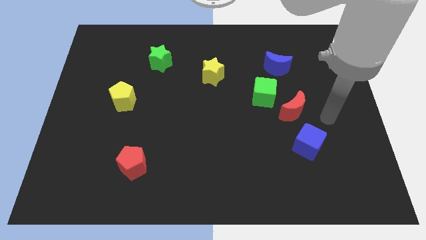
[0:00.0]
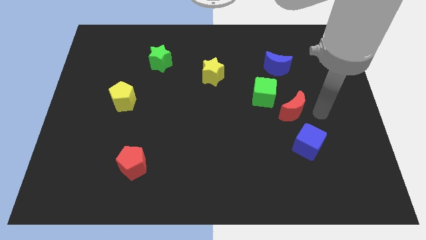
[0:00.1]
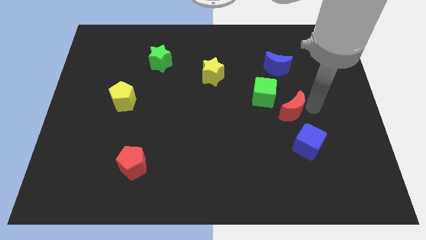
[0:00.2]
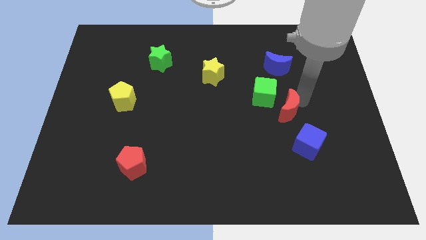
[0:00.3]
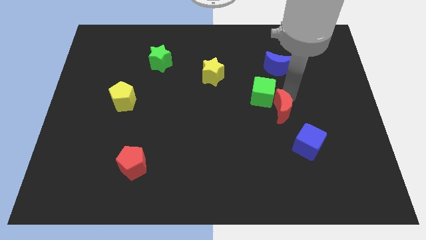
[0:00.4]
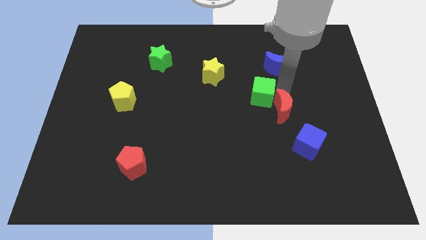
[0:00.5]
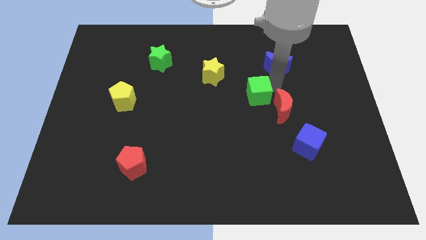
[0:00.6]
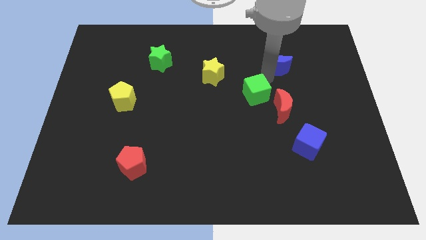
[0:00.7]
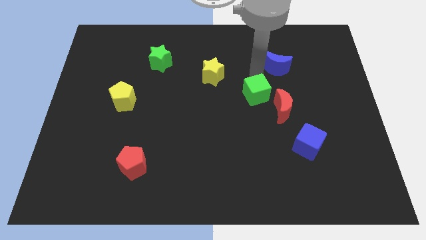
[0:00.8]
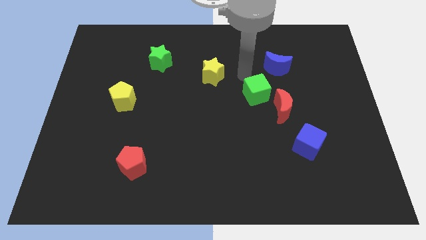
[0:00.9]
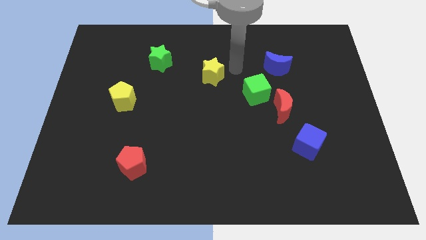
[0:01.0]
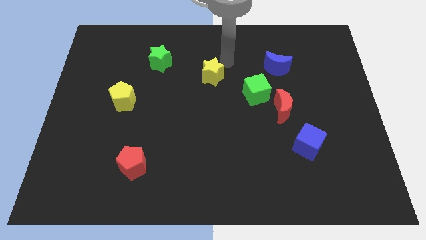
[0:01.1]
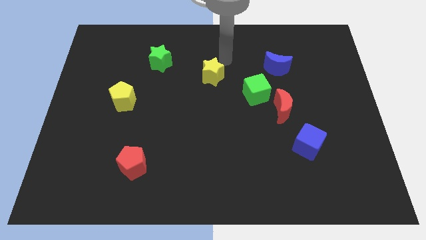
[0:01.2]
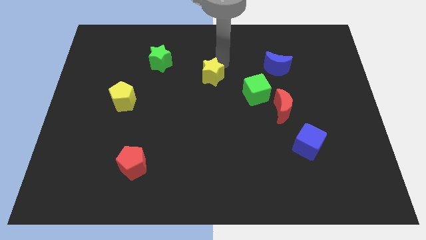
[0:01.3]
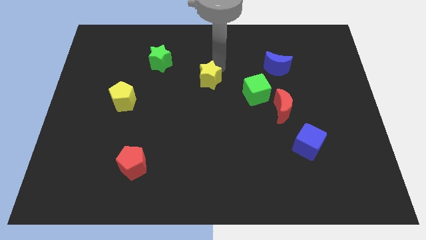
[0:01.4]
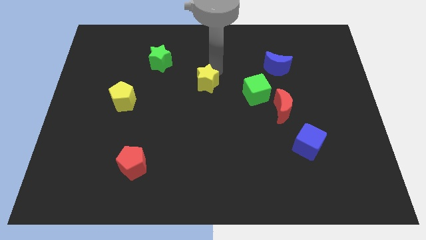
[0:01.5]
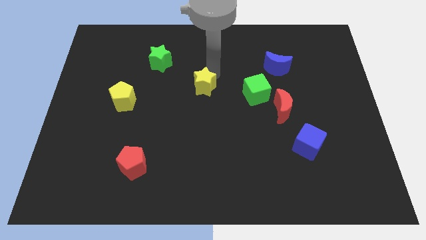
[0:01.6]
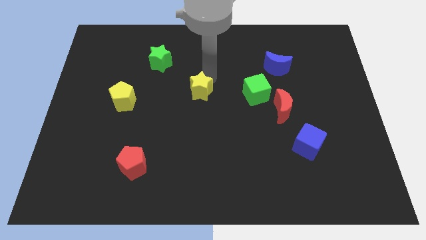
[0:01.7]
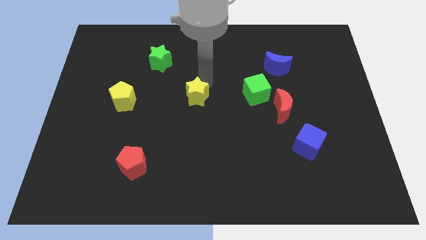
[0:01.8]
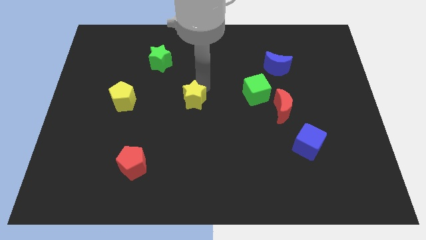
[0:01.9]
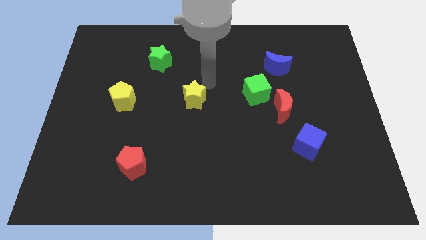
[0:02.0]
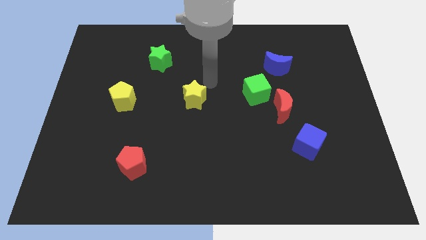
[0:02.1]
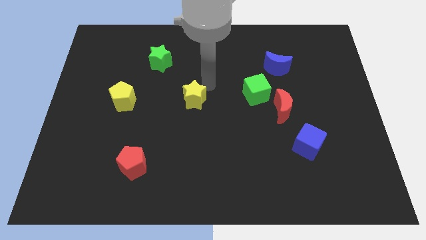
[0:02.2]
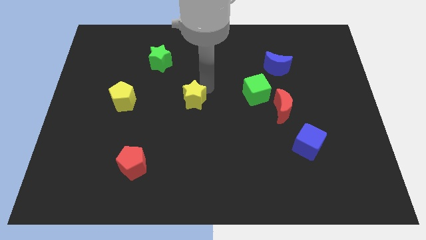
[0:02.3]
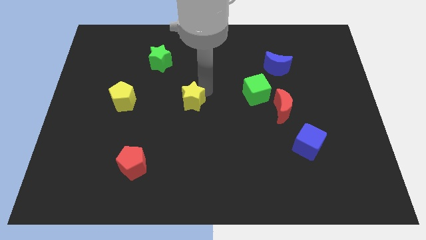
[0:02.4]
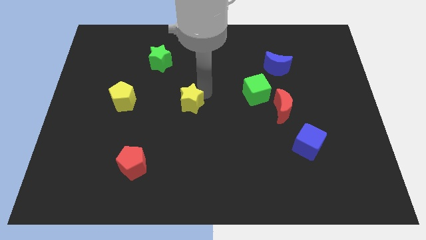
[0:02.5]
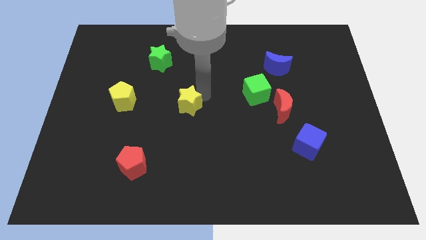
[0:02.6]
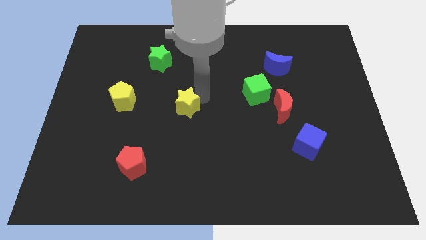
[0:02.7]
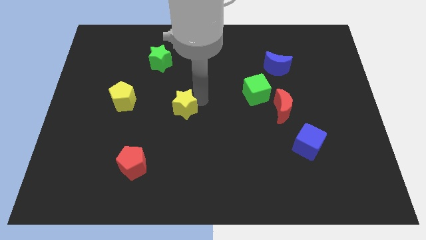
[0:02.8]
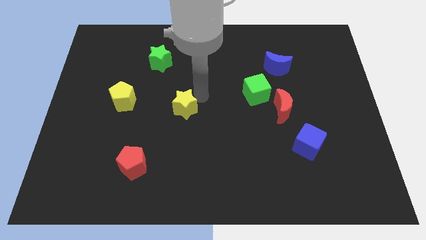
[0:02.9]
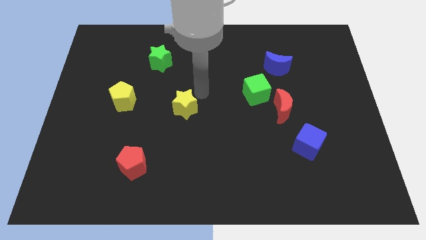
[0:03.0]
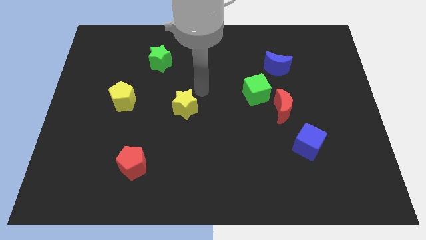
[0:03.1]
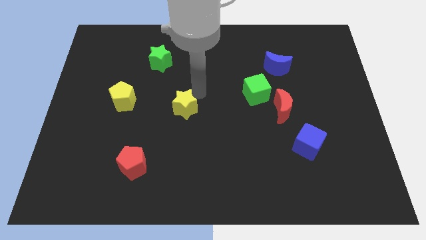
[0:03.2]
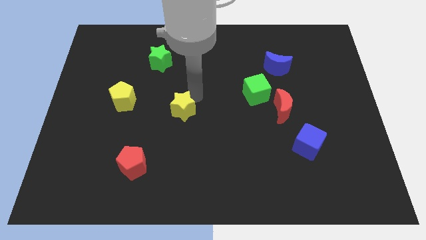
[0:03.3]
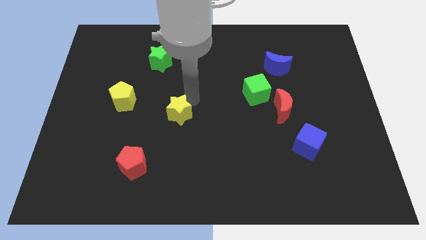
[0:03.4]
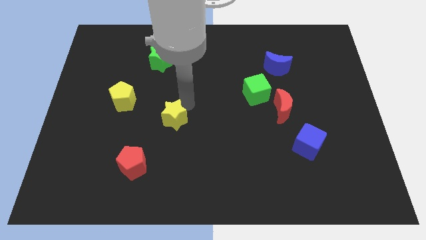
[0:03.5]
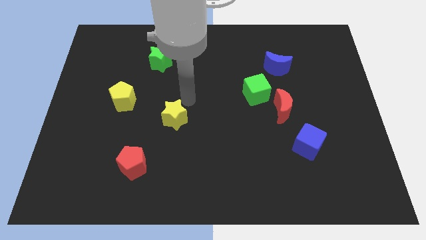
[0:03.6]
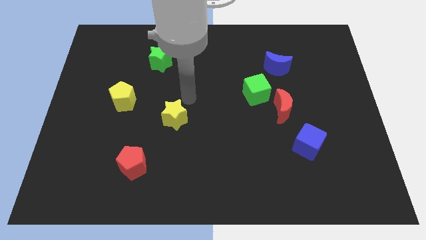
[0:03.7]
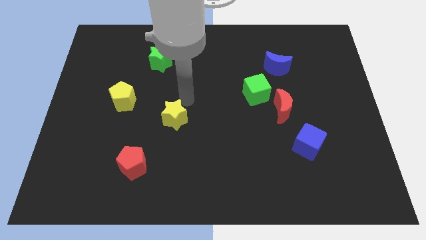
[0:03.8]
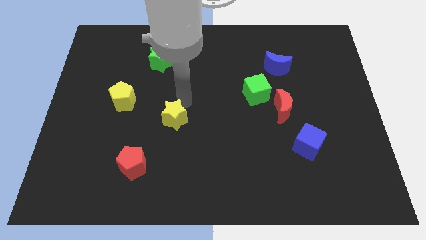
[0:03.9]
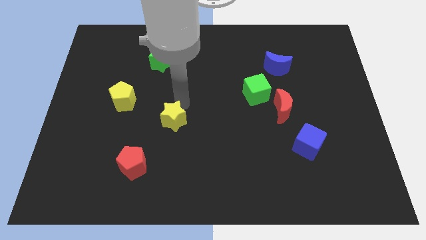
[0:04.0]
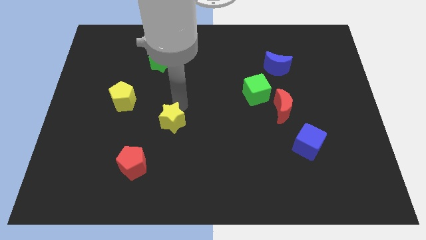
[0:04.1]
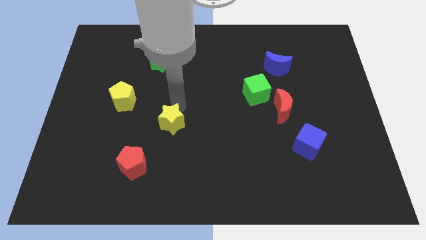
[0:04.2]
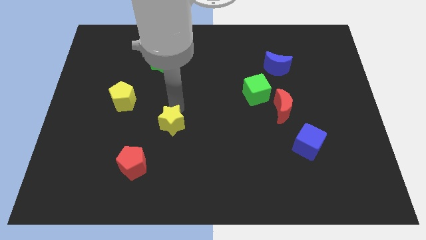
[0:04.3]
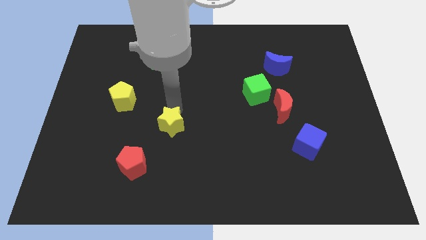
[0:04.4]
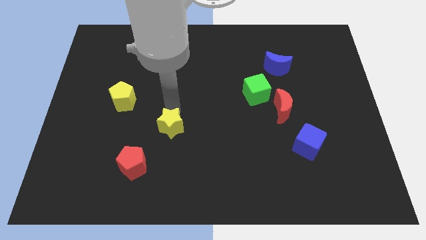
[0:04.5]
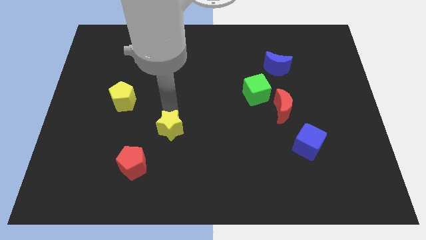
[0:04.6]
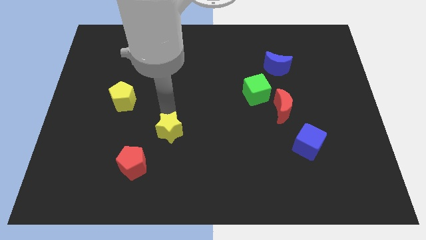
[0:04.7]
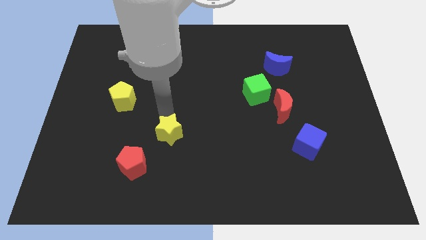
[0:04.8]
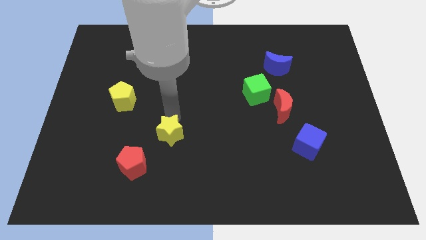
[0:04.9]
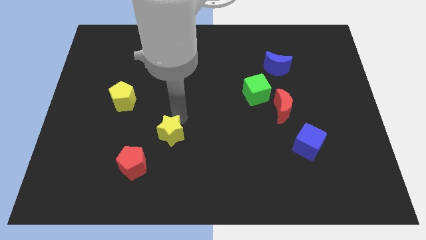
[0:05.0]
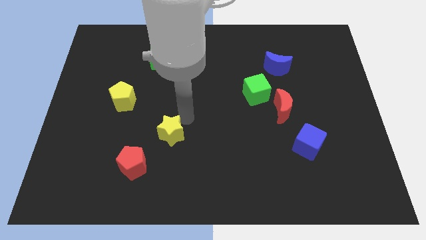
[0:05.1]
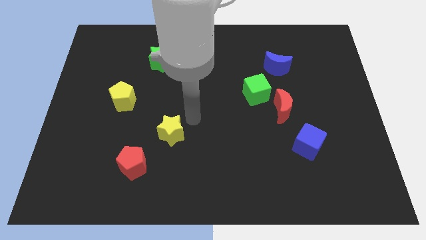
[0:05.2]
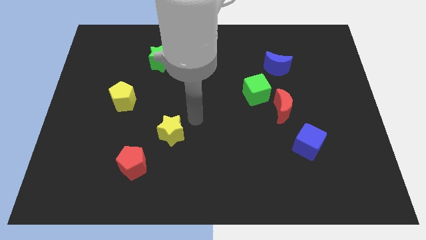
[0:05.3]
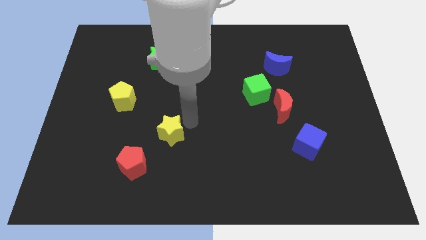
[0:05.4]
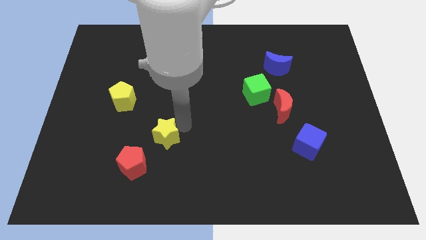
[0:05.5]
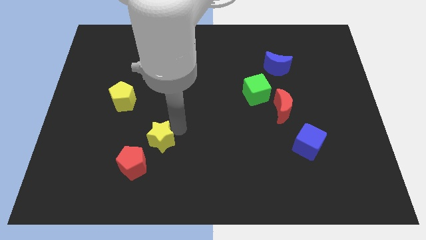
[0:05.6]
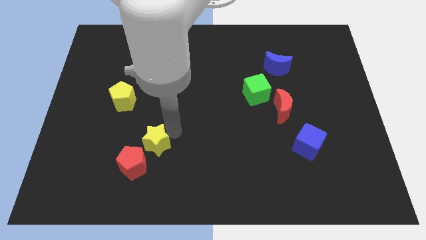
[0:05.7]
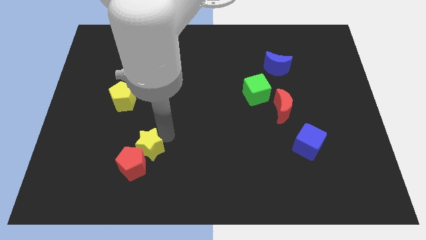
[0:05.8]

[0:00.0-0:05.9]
slide the yellow star to the red pentagon

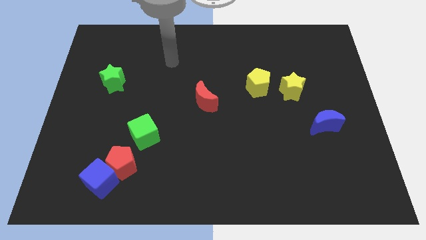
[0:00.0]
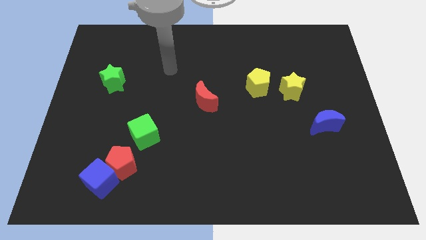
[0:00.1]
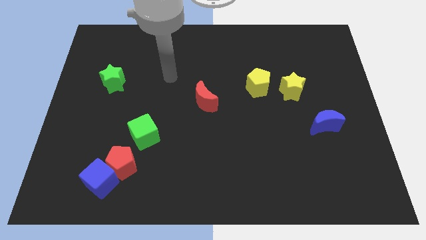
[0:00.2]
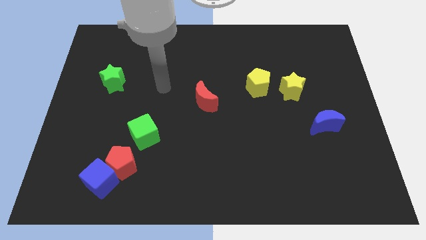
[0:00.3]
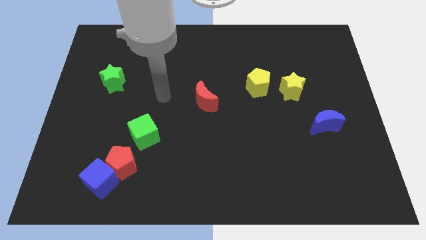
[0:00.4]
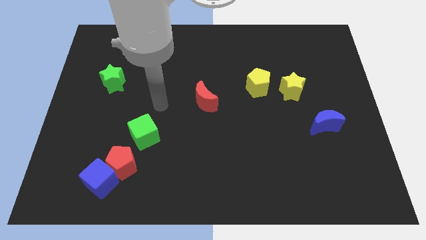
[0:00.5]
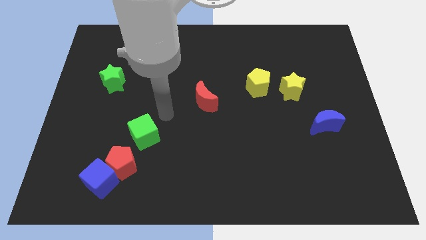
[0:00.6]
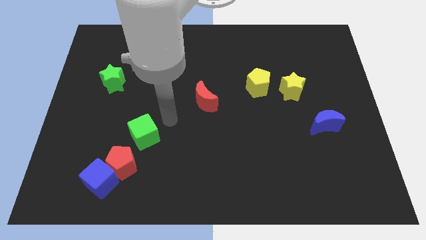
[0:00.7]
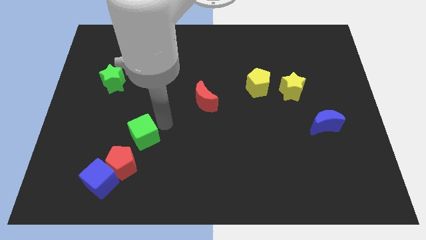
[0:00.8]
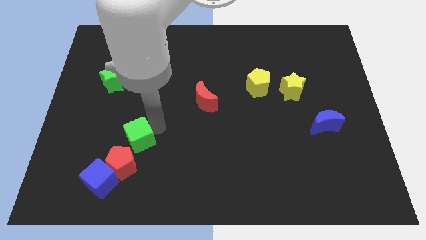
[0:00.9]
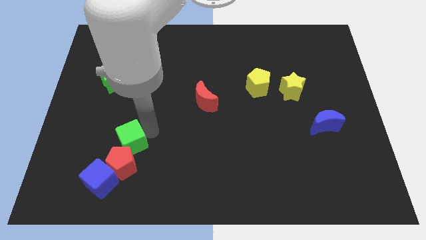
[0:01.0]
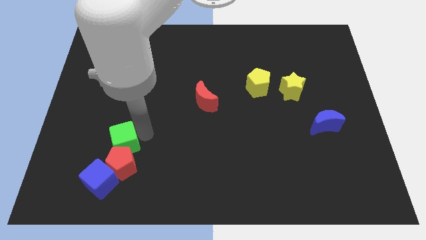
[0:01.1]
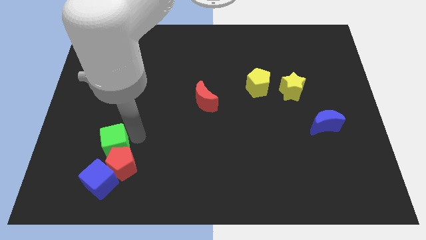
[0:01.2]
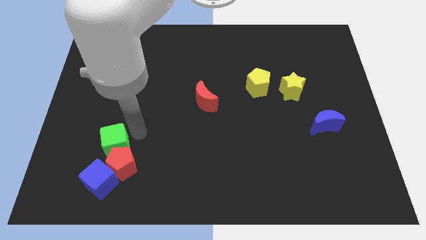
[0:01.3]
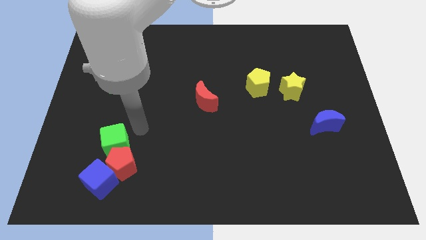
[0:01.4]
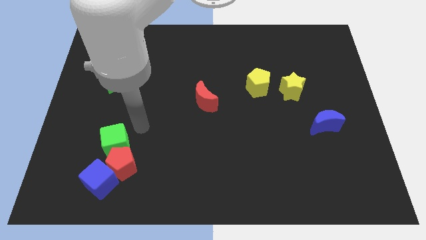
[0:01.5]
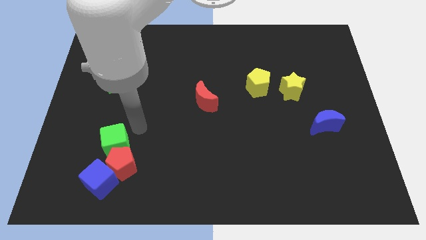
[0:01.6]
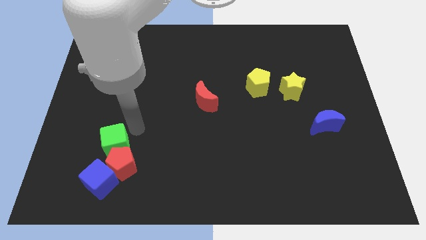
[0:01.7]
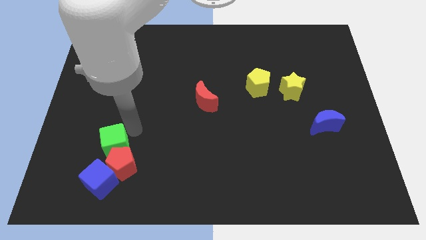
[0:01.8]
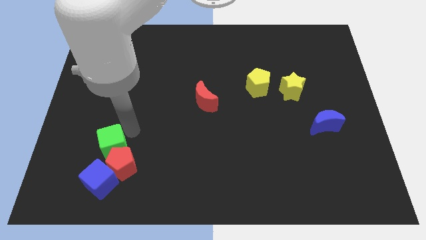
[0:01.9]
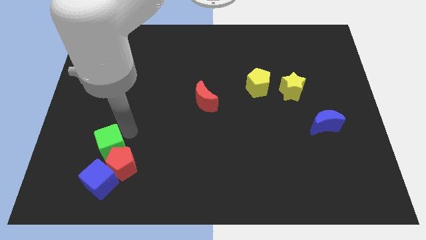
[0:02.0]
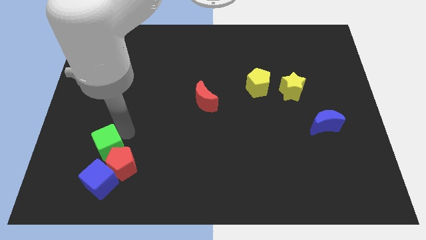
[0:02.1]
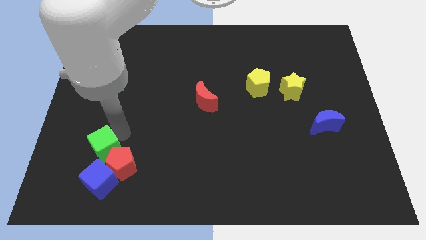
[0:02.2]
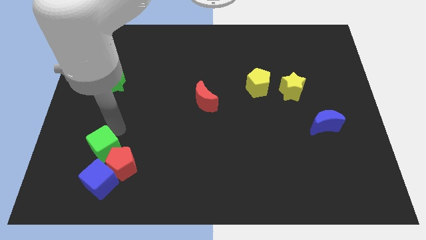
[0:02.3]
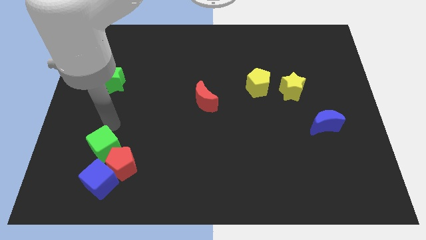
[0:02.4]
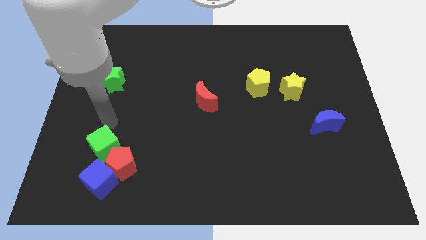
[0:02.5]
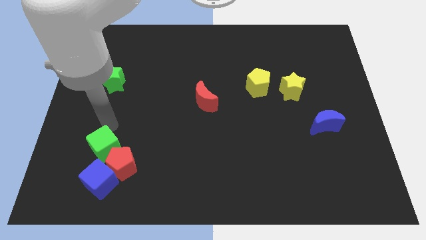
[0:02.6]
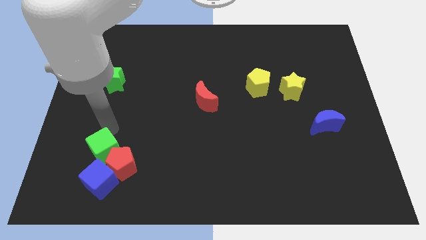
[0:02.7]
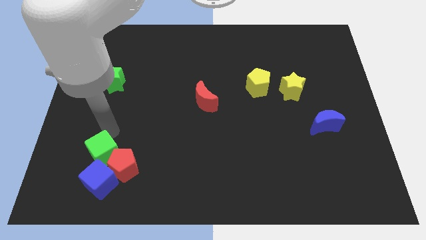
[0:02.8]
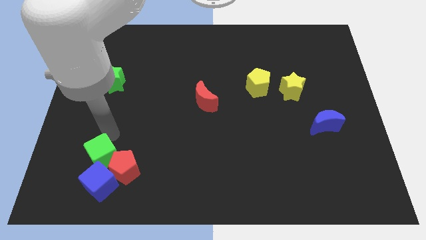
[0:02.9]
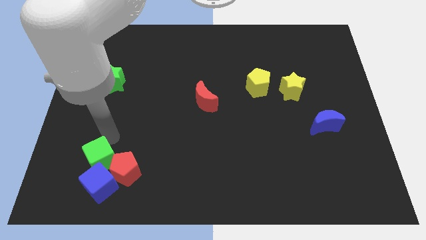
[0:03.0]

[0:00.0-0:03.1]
slide the green cube towards the blue cube
